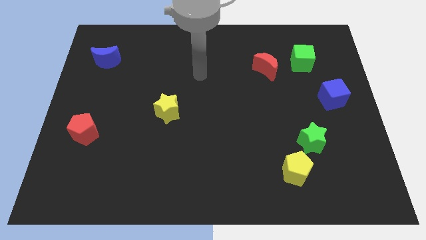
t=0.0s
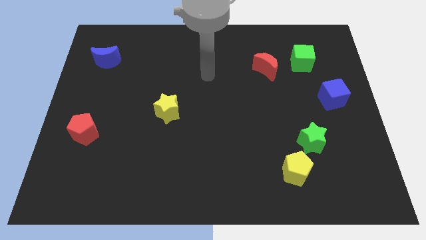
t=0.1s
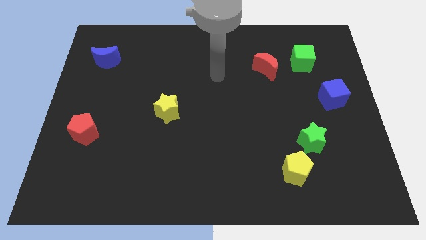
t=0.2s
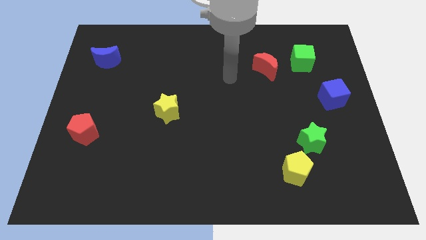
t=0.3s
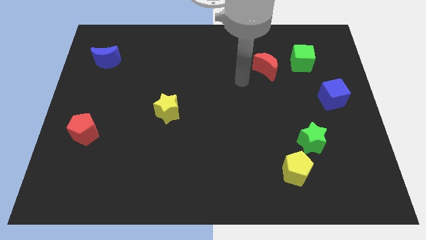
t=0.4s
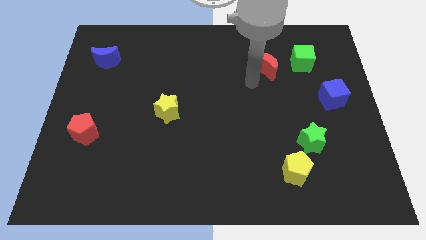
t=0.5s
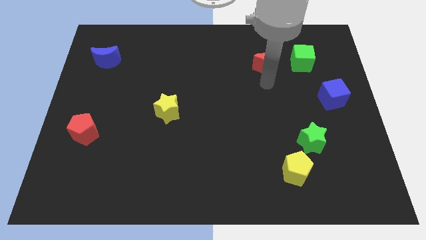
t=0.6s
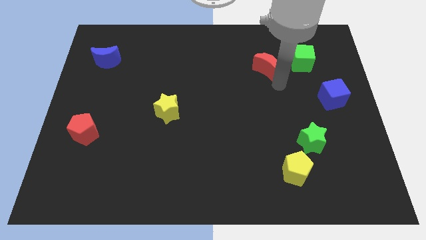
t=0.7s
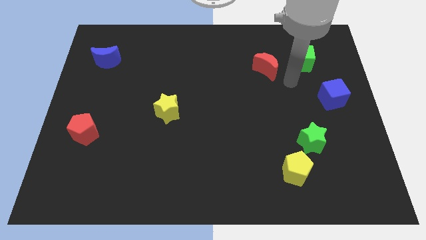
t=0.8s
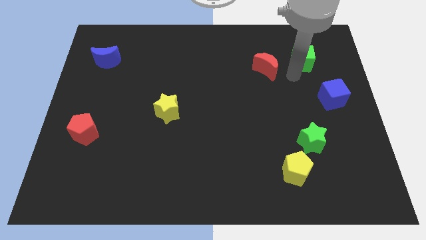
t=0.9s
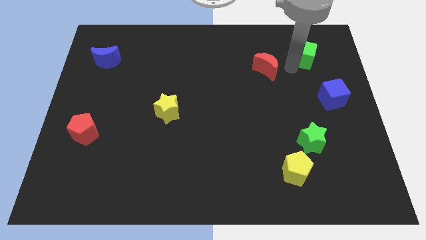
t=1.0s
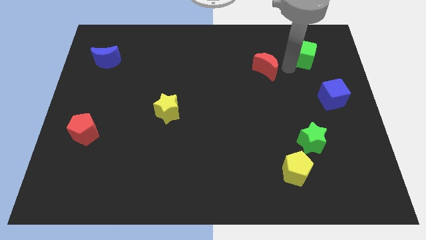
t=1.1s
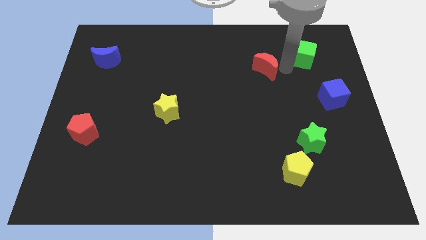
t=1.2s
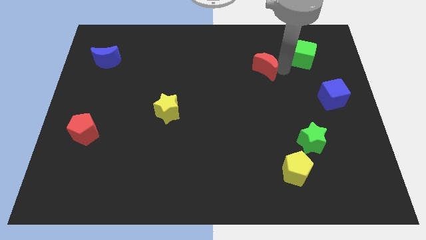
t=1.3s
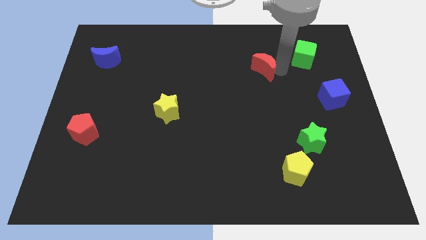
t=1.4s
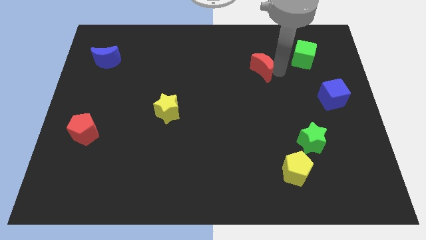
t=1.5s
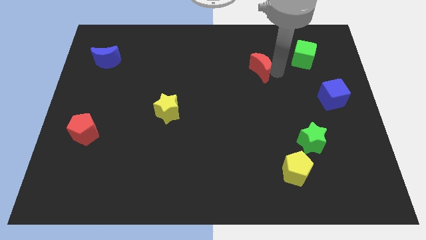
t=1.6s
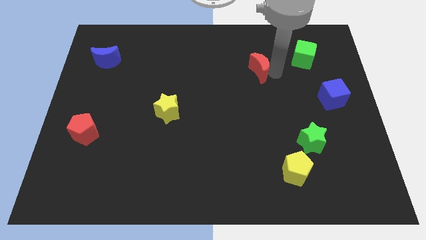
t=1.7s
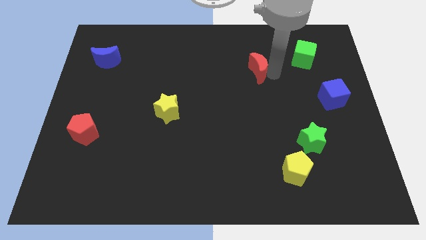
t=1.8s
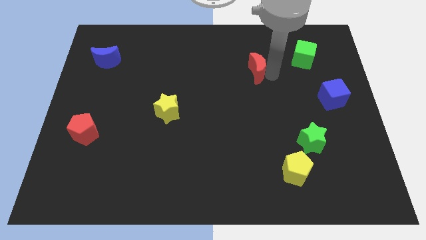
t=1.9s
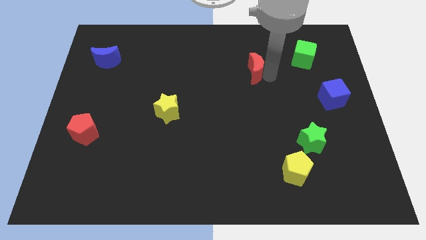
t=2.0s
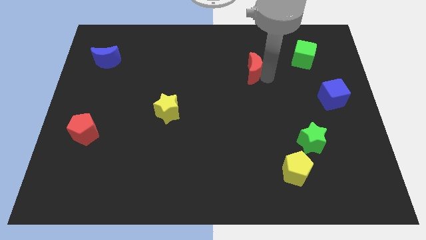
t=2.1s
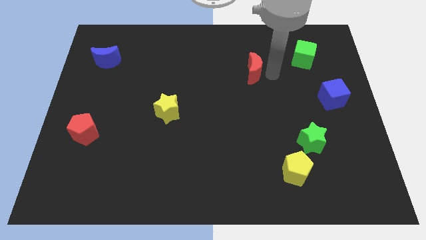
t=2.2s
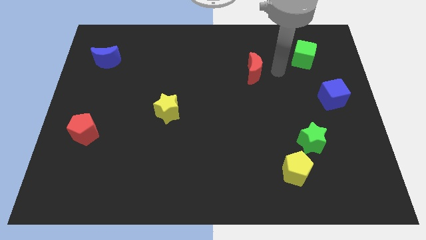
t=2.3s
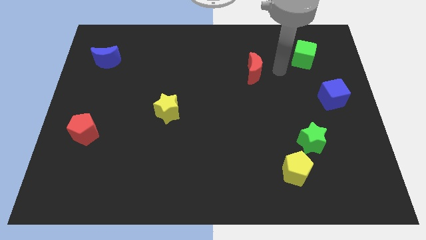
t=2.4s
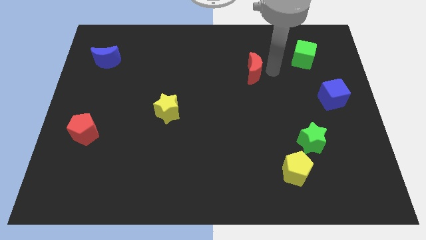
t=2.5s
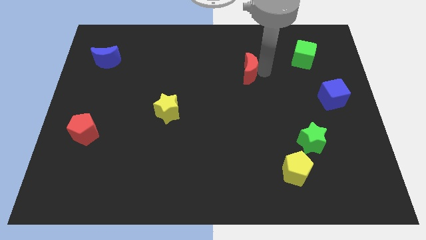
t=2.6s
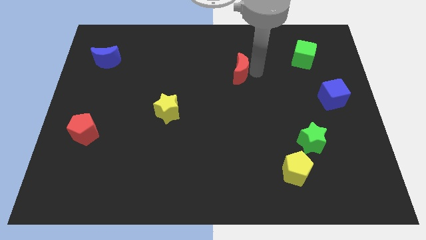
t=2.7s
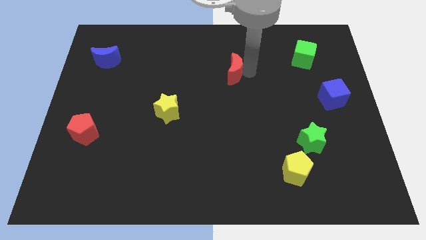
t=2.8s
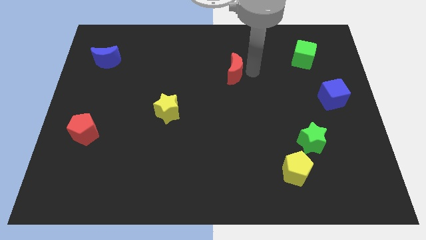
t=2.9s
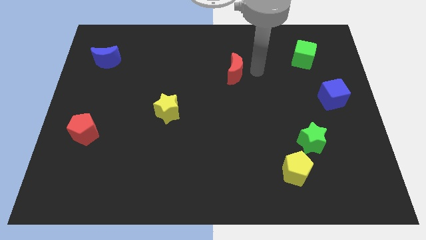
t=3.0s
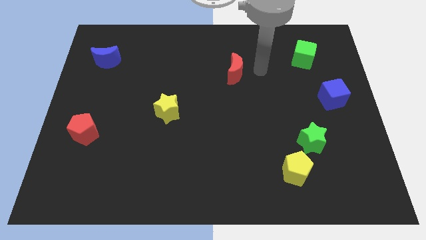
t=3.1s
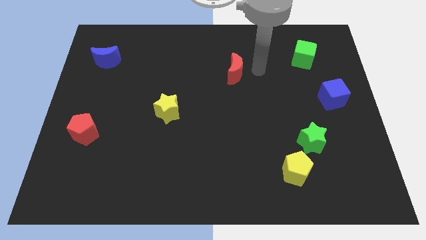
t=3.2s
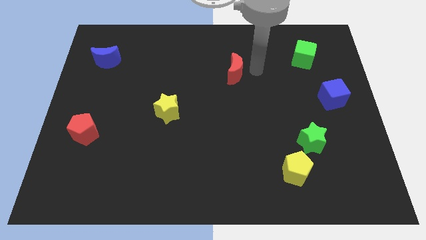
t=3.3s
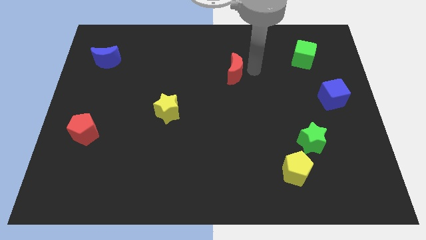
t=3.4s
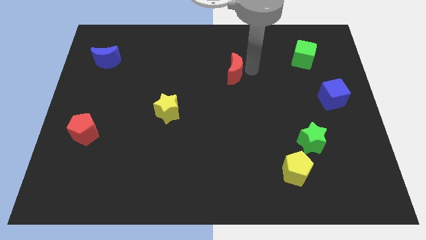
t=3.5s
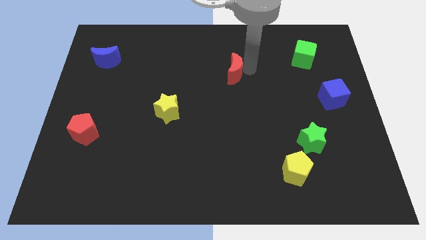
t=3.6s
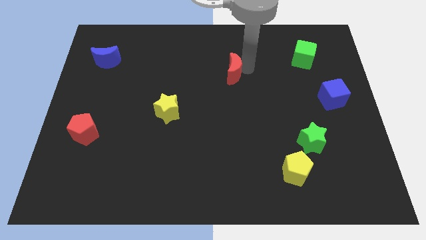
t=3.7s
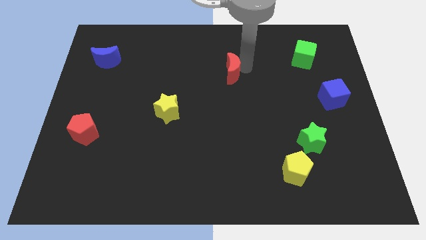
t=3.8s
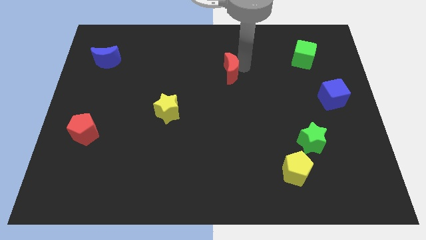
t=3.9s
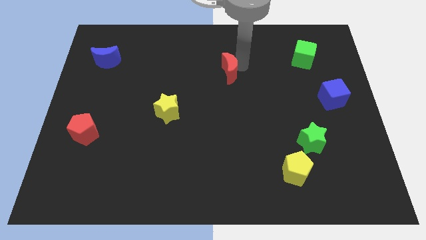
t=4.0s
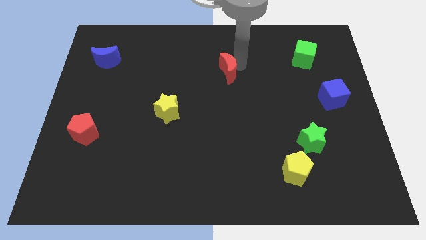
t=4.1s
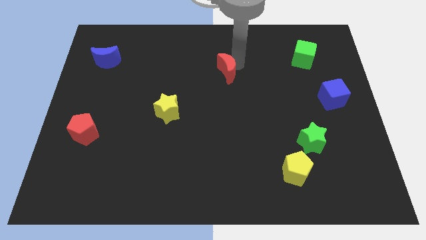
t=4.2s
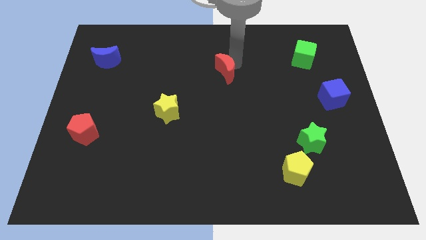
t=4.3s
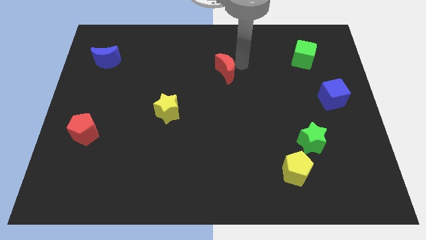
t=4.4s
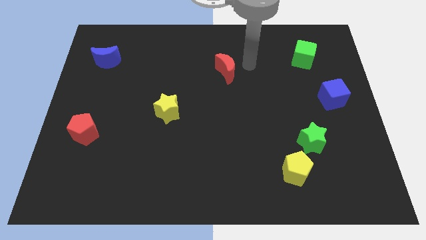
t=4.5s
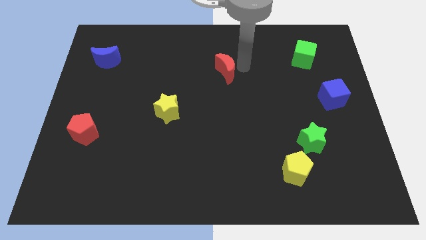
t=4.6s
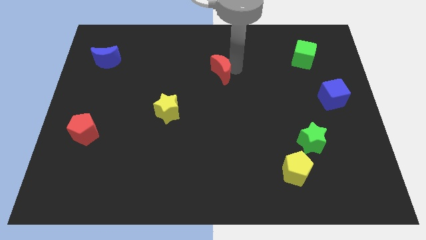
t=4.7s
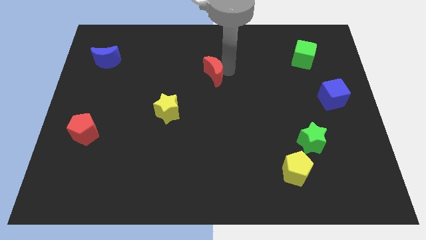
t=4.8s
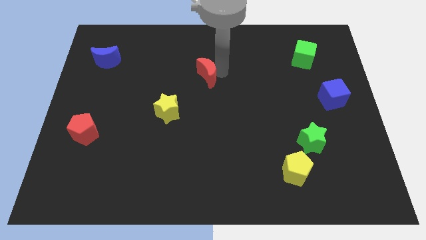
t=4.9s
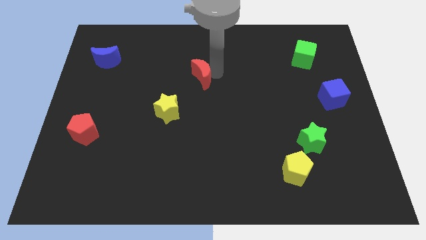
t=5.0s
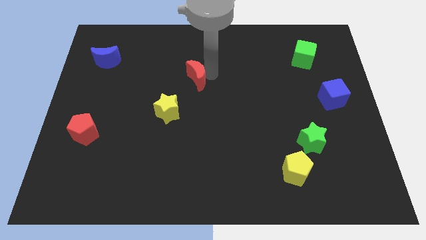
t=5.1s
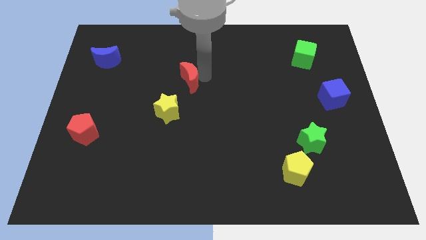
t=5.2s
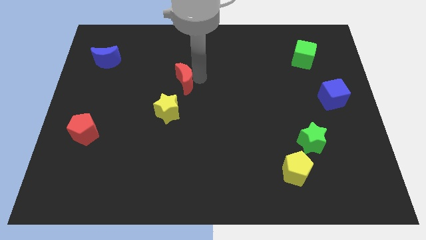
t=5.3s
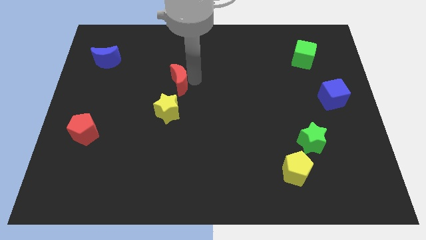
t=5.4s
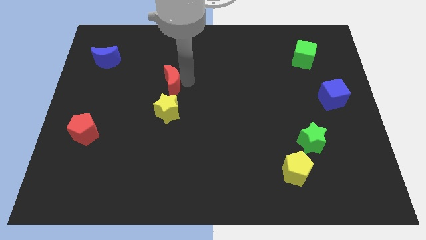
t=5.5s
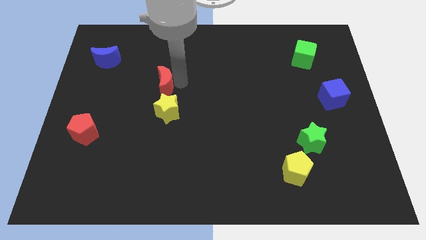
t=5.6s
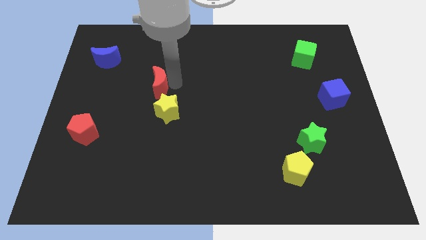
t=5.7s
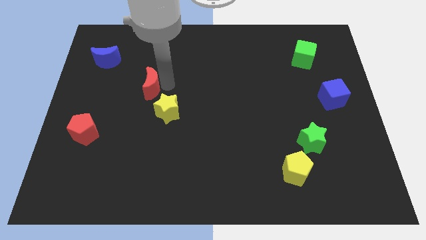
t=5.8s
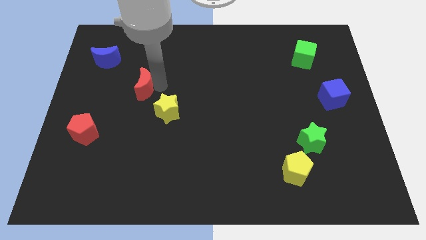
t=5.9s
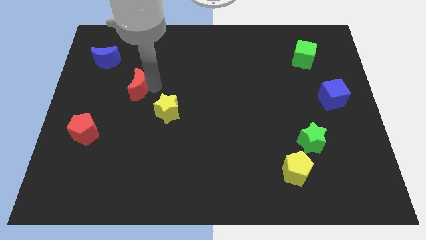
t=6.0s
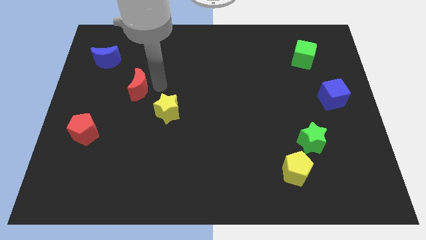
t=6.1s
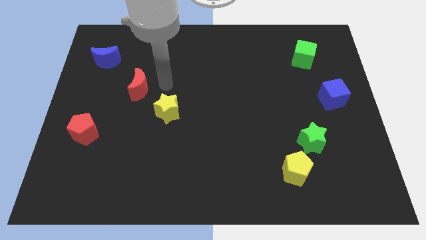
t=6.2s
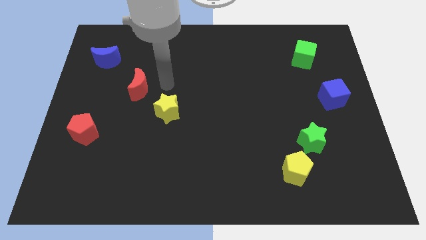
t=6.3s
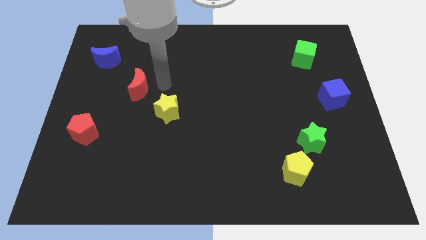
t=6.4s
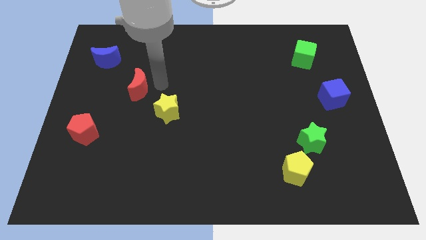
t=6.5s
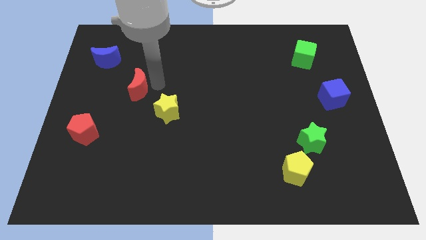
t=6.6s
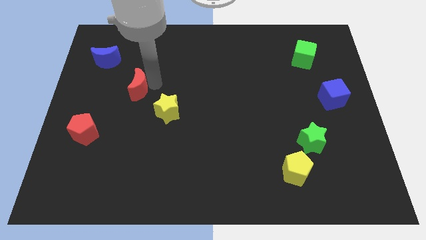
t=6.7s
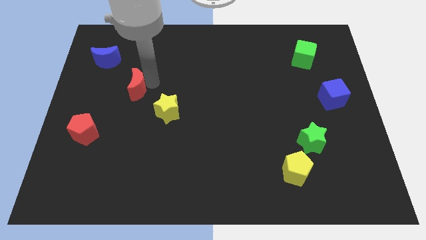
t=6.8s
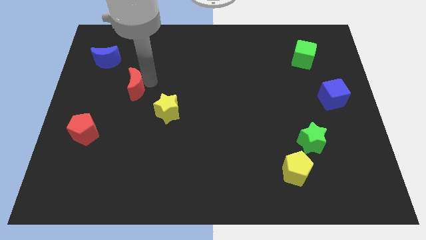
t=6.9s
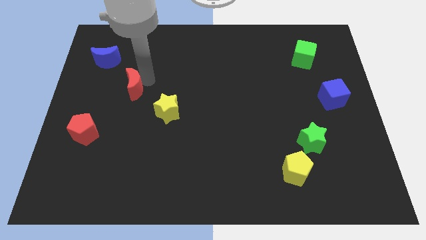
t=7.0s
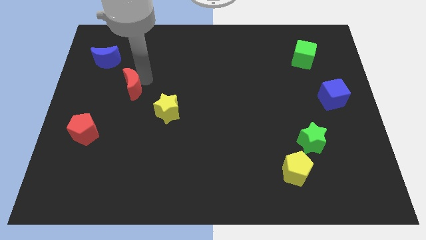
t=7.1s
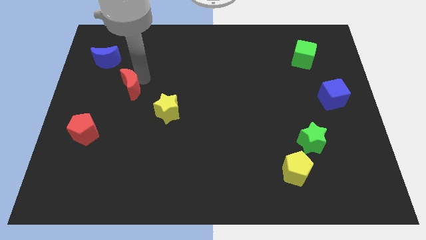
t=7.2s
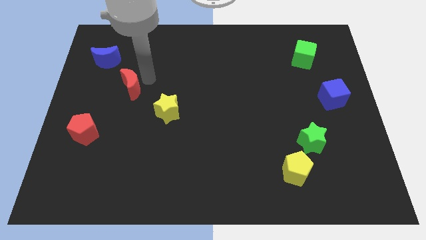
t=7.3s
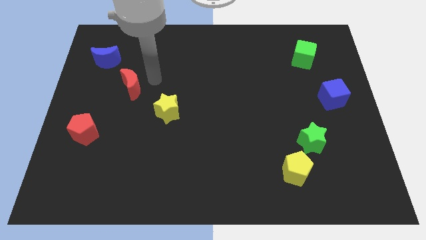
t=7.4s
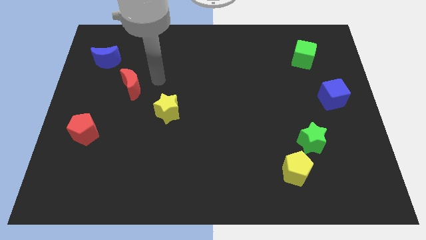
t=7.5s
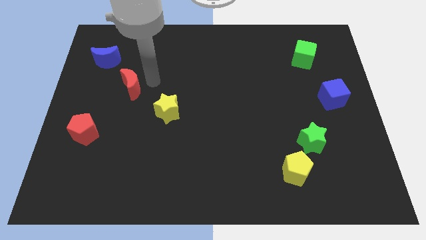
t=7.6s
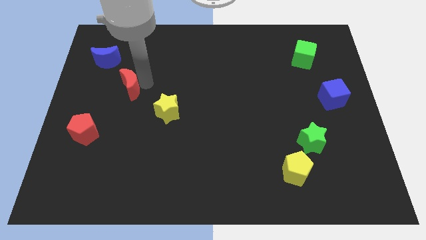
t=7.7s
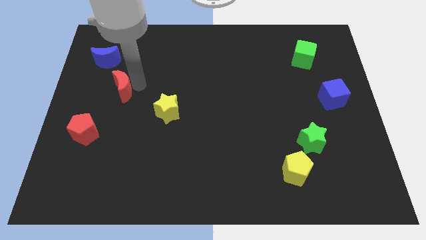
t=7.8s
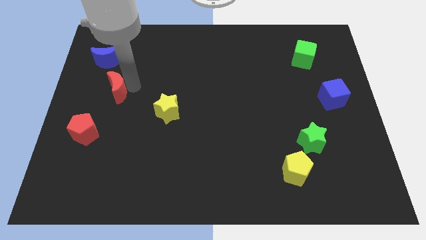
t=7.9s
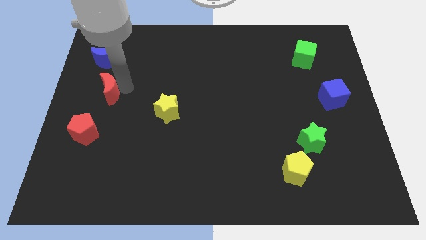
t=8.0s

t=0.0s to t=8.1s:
put the red moon to the top side of the red pentagon
